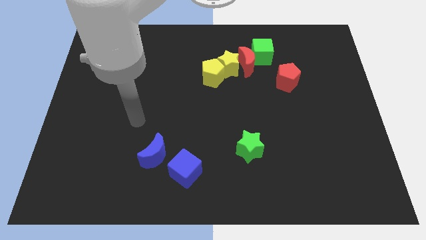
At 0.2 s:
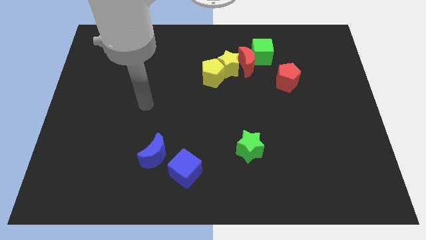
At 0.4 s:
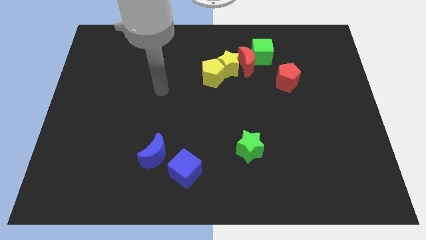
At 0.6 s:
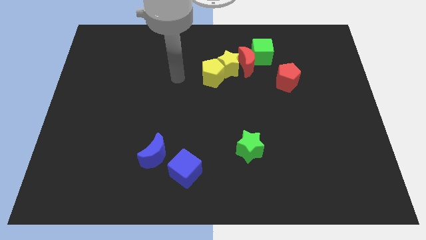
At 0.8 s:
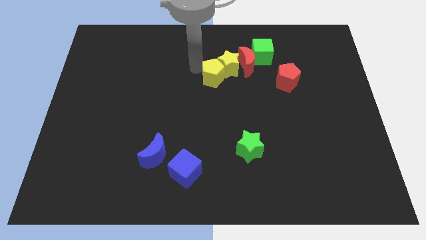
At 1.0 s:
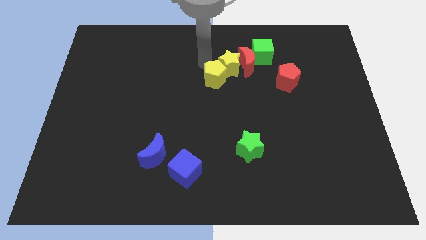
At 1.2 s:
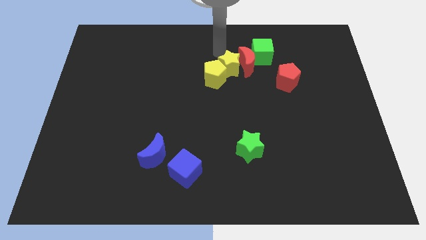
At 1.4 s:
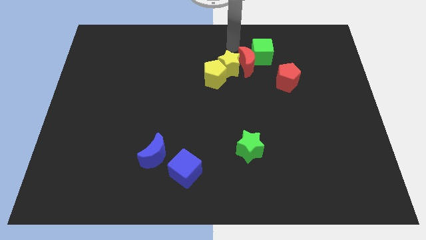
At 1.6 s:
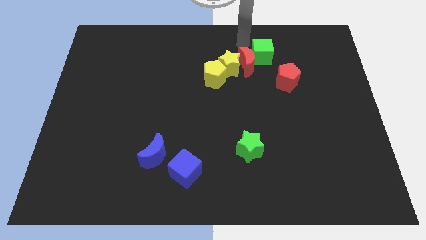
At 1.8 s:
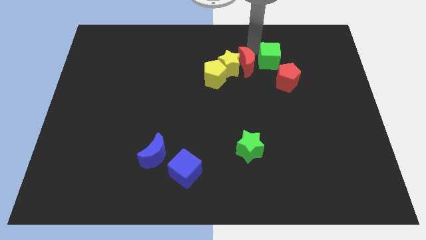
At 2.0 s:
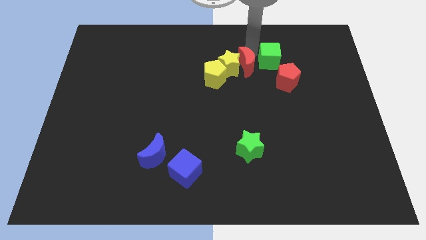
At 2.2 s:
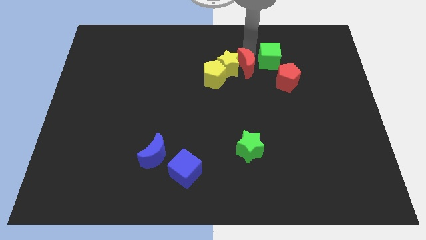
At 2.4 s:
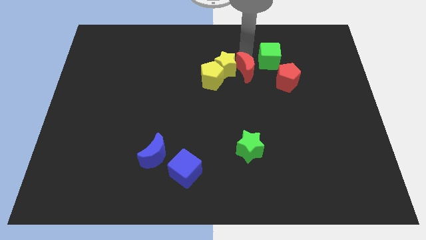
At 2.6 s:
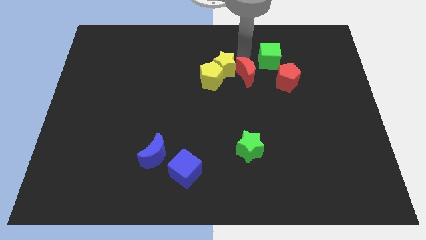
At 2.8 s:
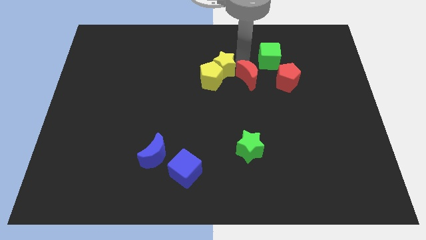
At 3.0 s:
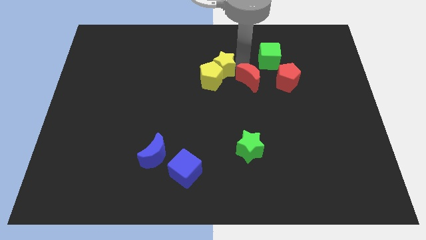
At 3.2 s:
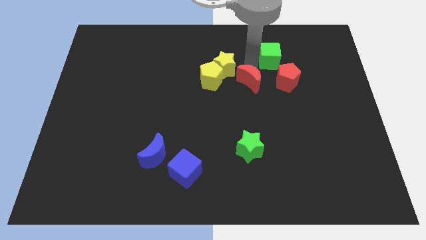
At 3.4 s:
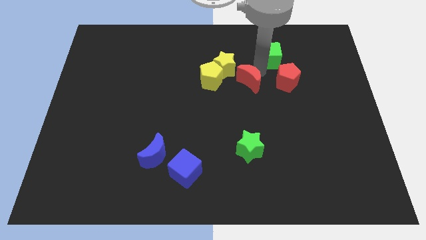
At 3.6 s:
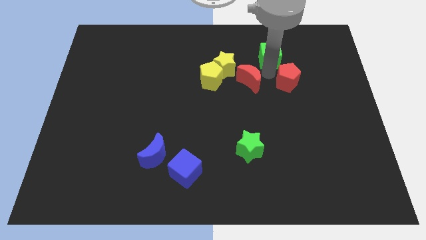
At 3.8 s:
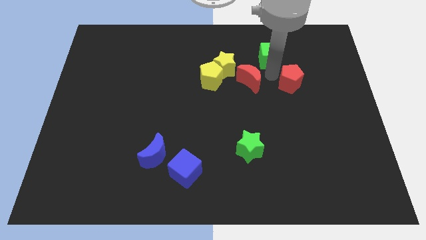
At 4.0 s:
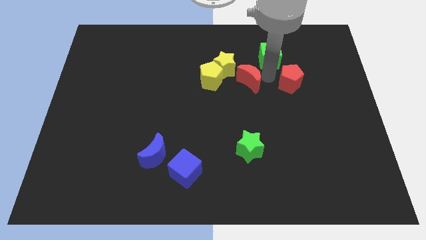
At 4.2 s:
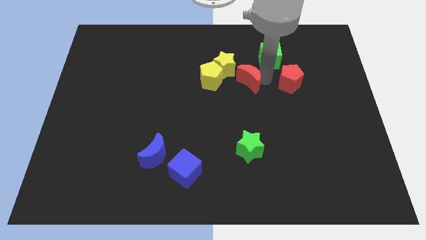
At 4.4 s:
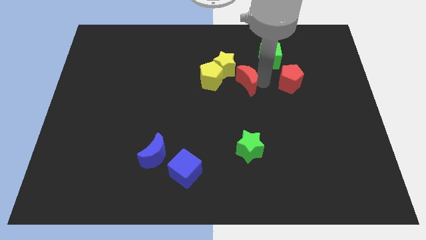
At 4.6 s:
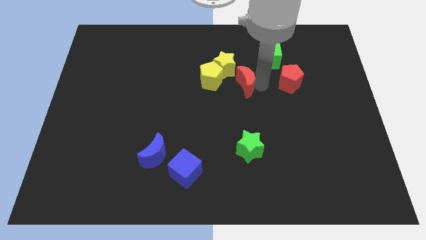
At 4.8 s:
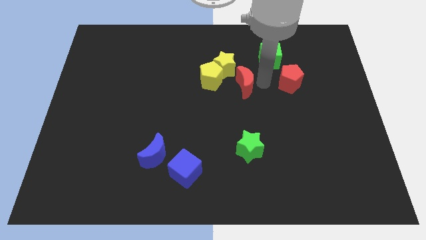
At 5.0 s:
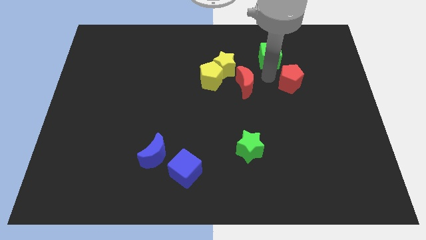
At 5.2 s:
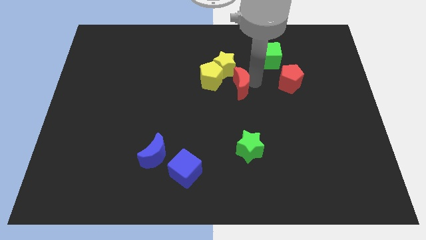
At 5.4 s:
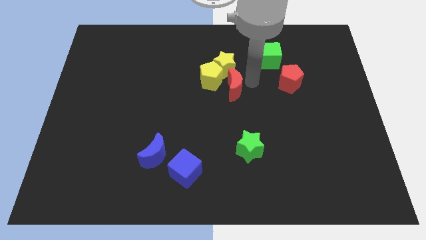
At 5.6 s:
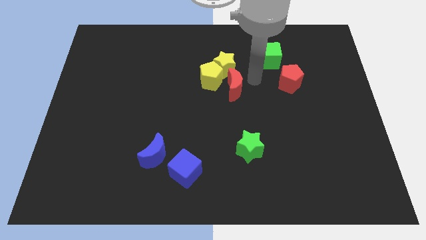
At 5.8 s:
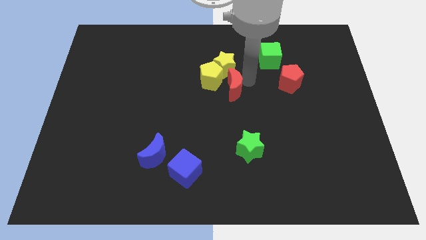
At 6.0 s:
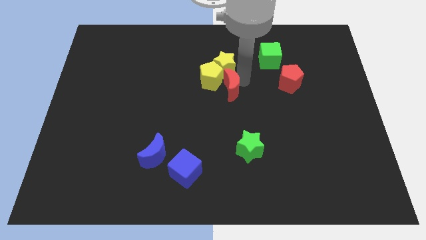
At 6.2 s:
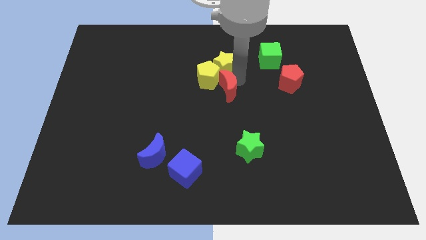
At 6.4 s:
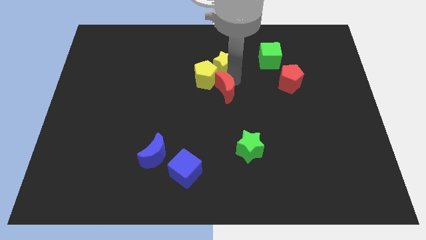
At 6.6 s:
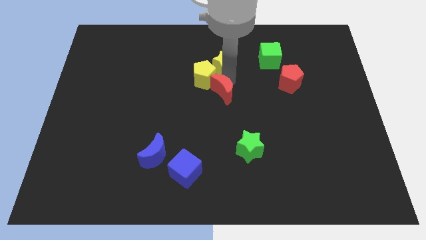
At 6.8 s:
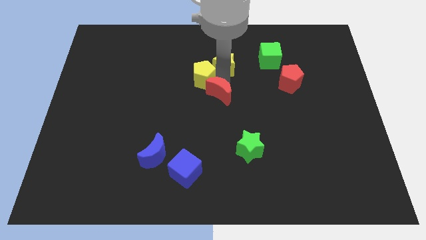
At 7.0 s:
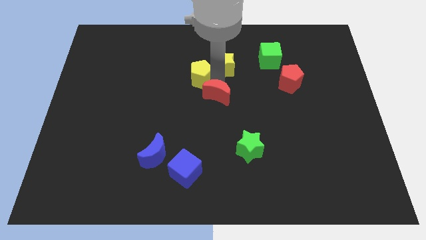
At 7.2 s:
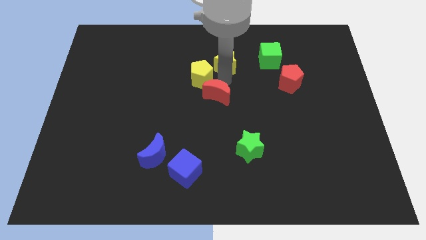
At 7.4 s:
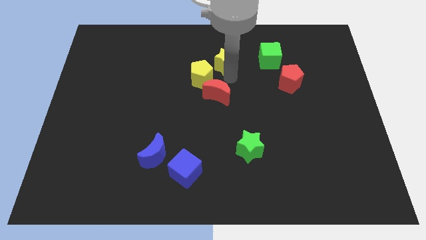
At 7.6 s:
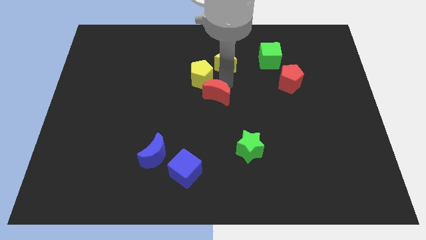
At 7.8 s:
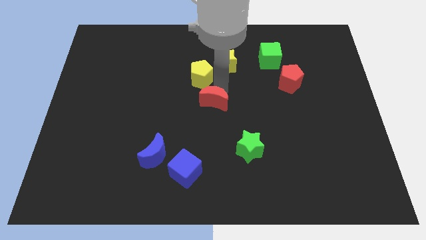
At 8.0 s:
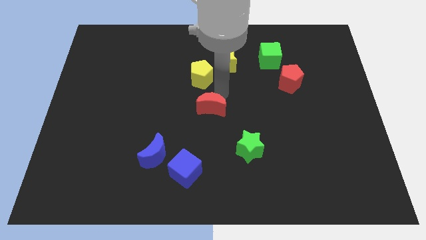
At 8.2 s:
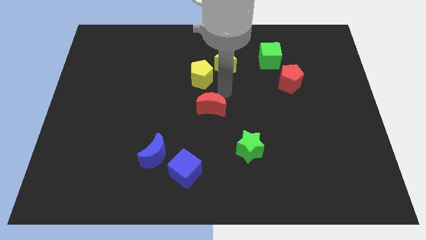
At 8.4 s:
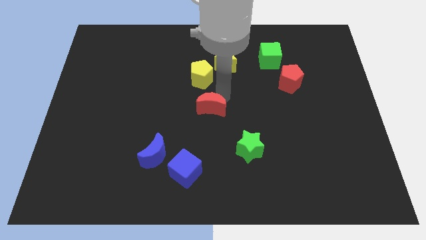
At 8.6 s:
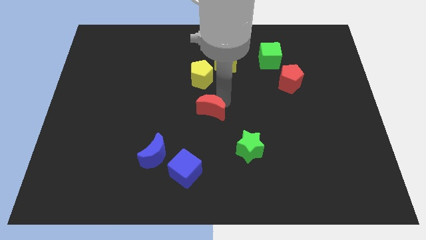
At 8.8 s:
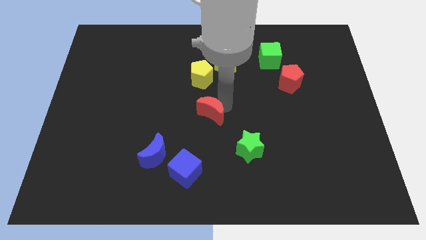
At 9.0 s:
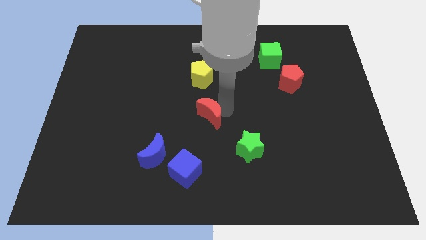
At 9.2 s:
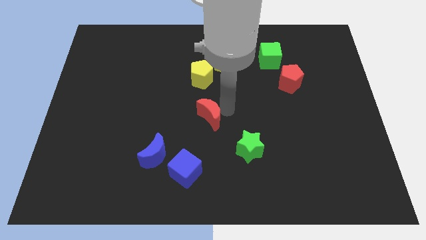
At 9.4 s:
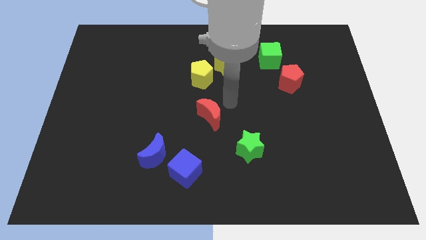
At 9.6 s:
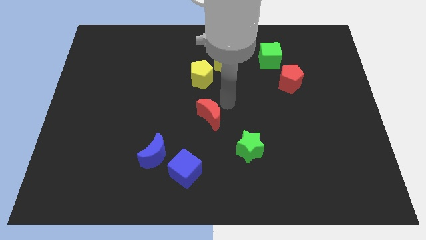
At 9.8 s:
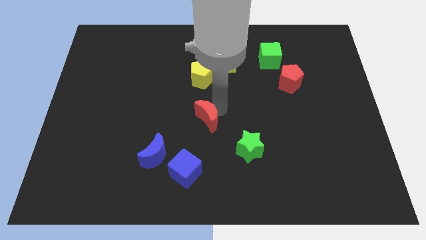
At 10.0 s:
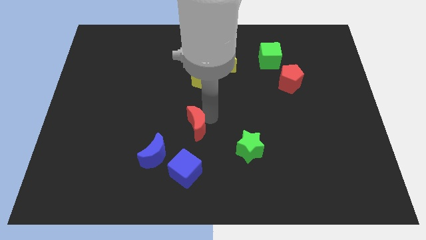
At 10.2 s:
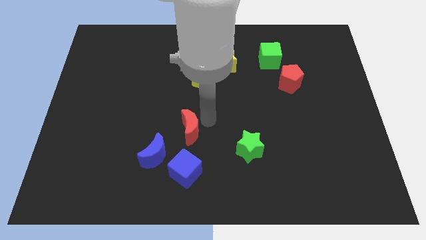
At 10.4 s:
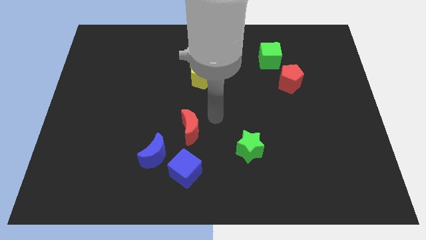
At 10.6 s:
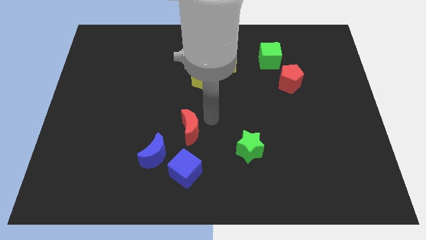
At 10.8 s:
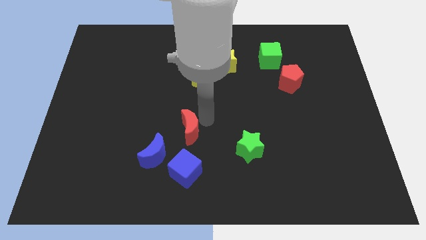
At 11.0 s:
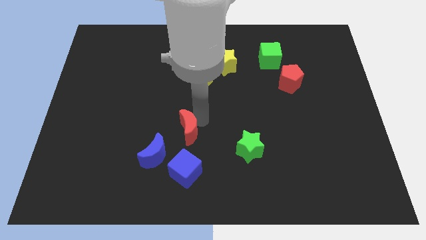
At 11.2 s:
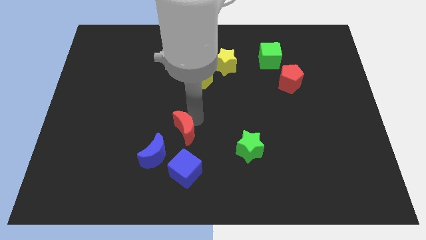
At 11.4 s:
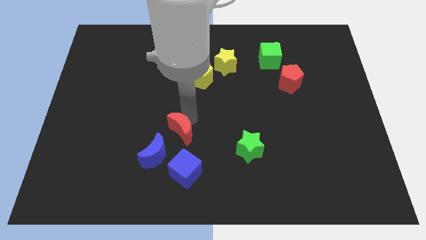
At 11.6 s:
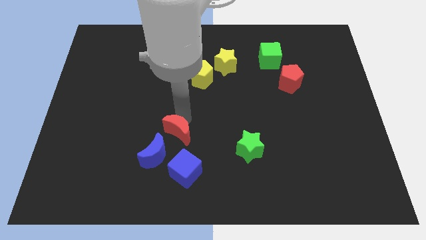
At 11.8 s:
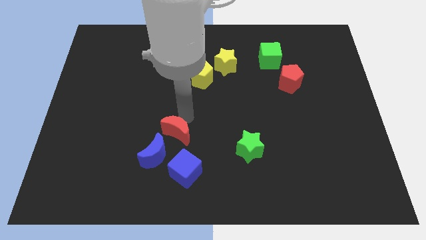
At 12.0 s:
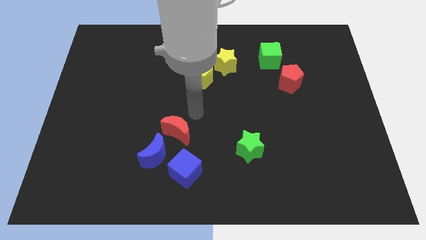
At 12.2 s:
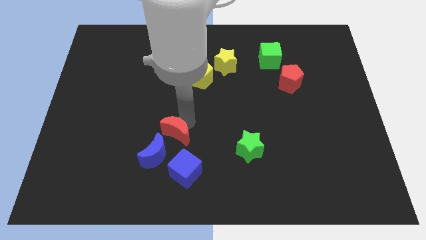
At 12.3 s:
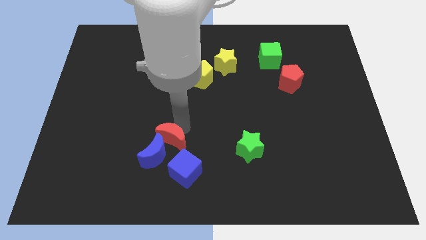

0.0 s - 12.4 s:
slide the red moon towards the blue moon
